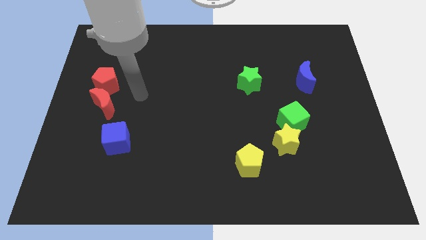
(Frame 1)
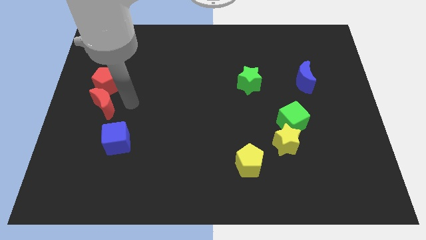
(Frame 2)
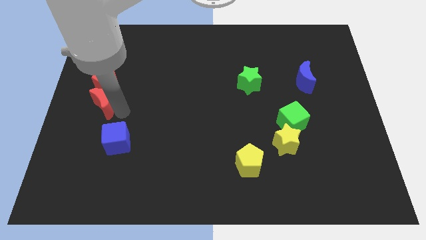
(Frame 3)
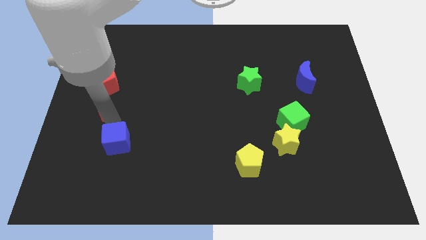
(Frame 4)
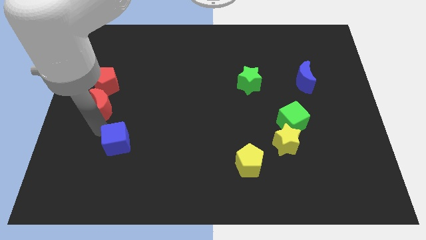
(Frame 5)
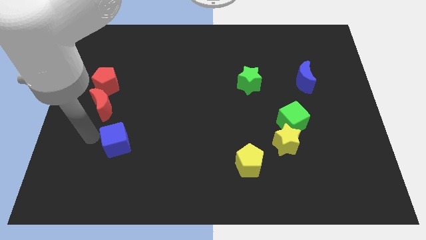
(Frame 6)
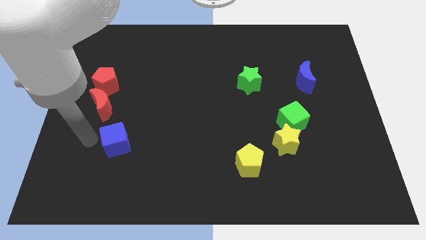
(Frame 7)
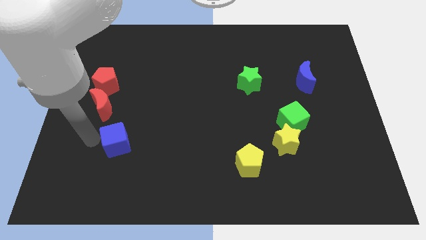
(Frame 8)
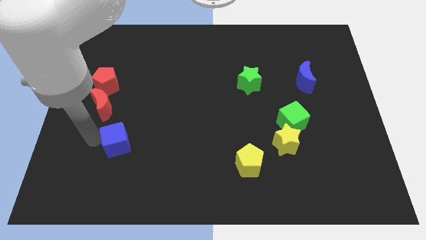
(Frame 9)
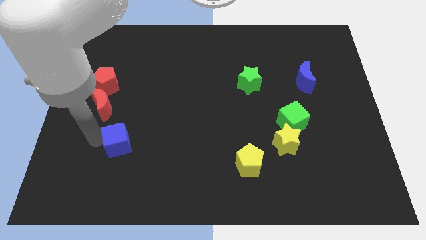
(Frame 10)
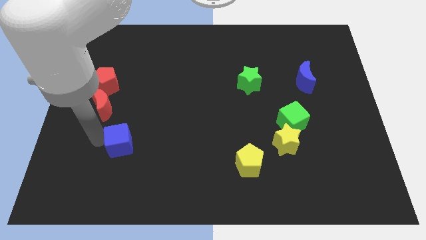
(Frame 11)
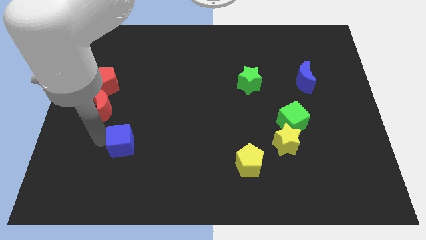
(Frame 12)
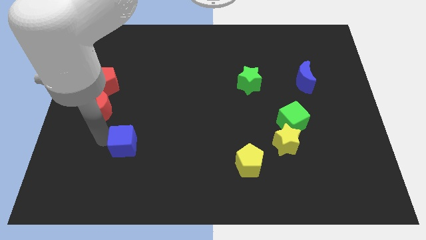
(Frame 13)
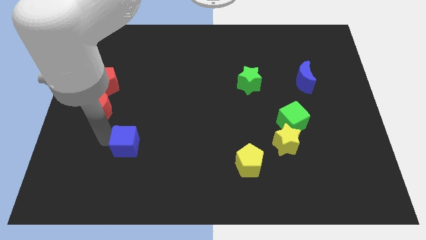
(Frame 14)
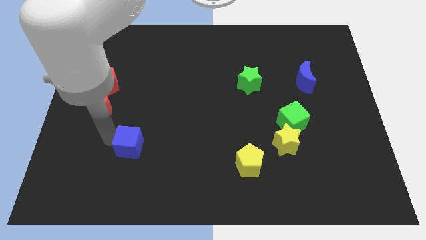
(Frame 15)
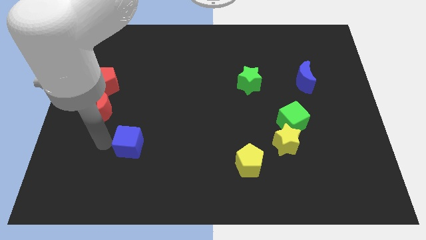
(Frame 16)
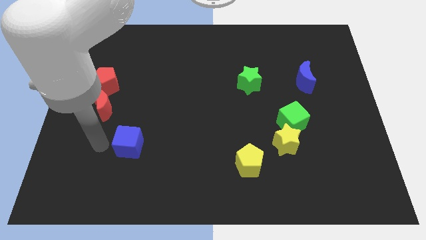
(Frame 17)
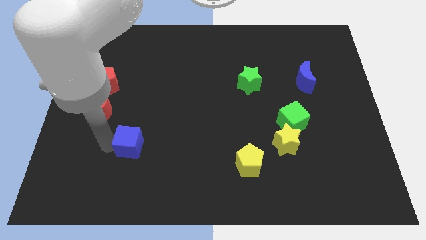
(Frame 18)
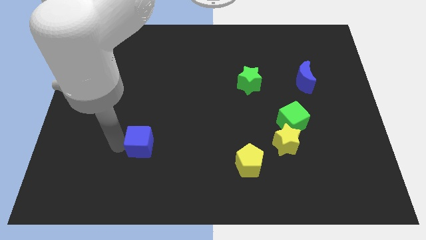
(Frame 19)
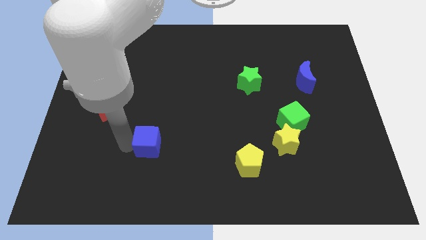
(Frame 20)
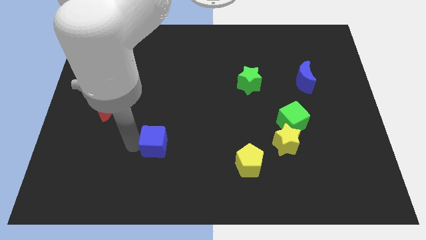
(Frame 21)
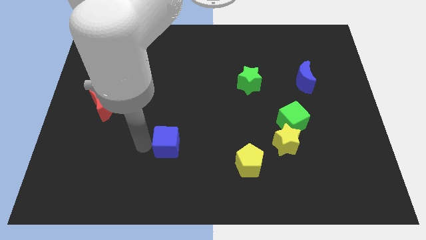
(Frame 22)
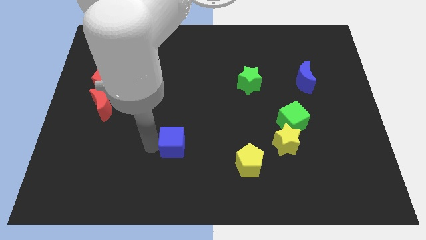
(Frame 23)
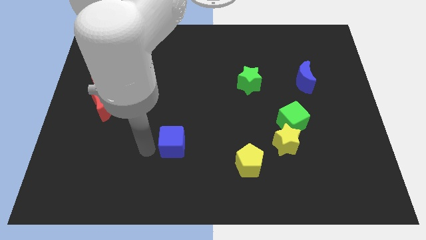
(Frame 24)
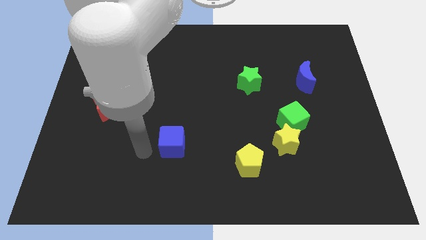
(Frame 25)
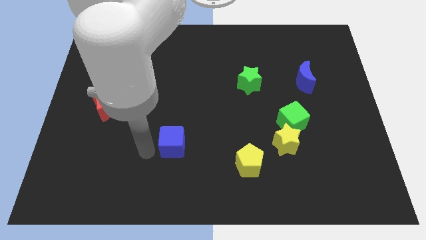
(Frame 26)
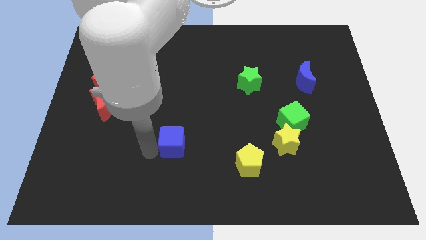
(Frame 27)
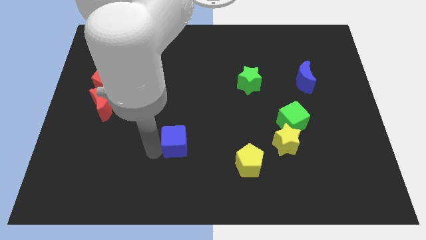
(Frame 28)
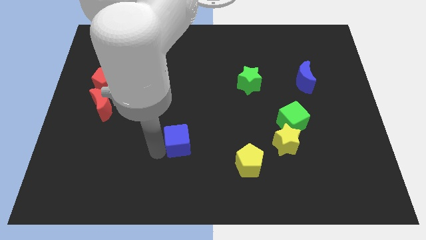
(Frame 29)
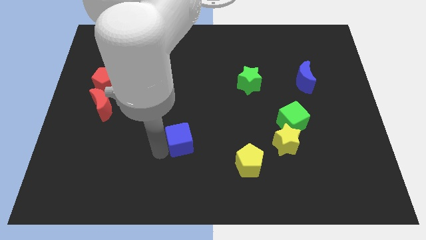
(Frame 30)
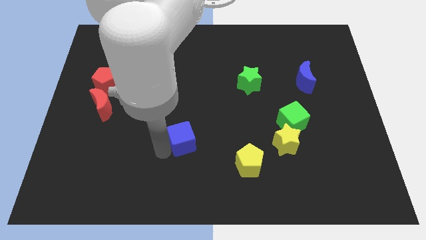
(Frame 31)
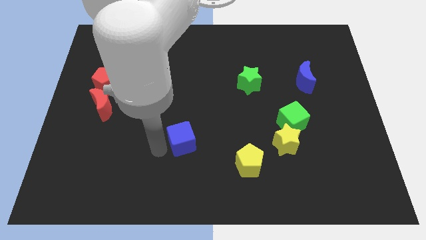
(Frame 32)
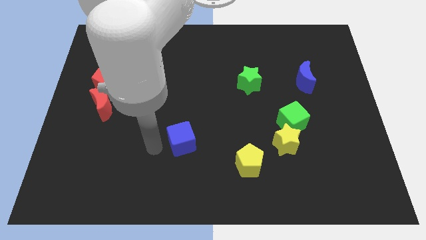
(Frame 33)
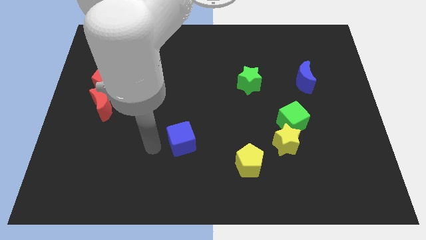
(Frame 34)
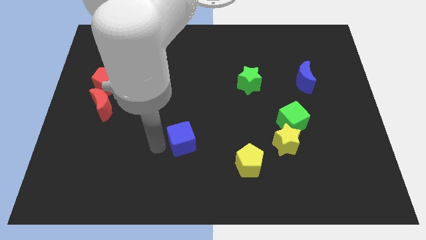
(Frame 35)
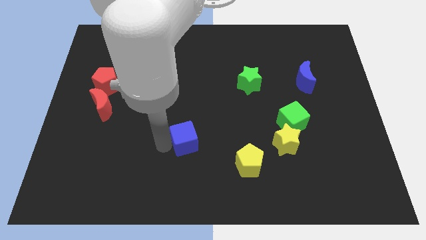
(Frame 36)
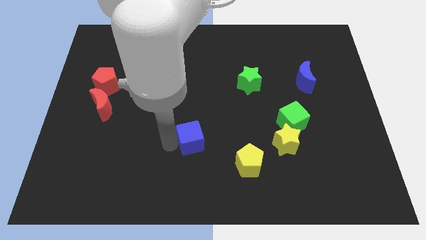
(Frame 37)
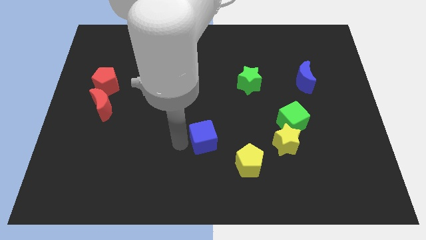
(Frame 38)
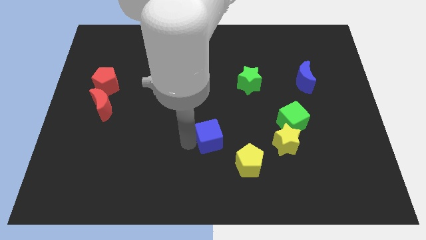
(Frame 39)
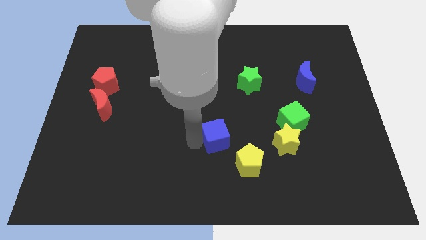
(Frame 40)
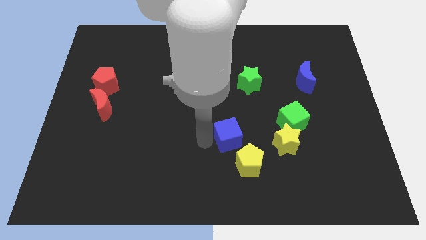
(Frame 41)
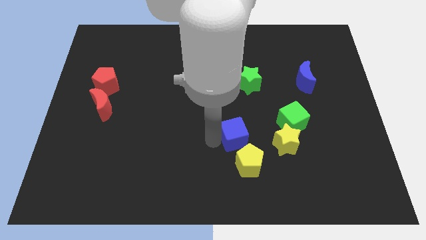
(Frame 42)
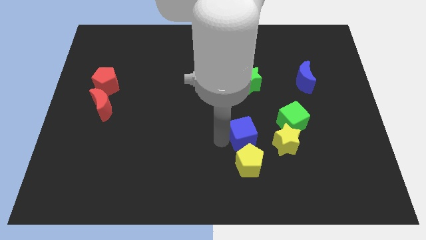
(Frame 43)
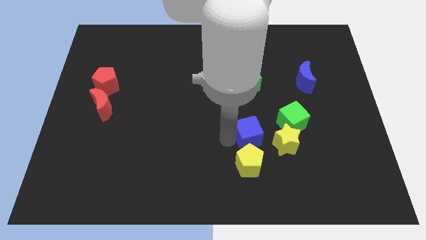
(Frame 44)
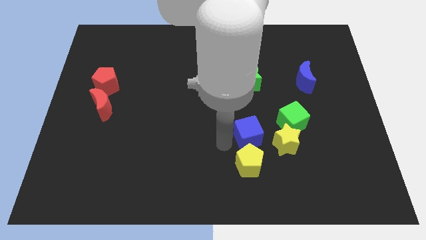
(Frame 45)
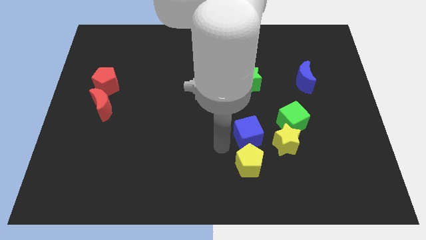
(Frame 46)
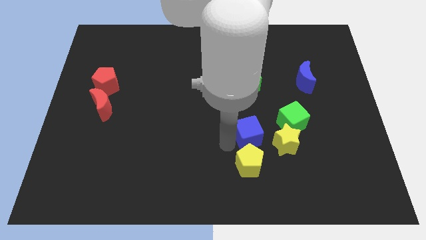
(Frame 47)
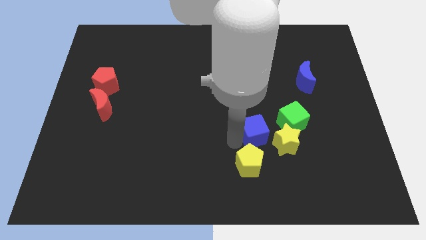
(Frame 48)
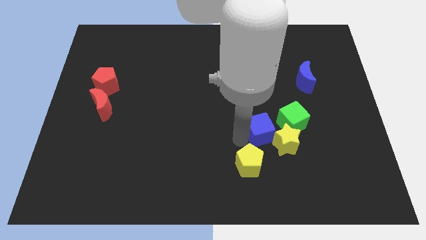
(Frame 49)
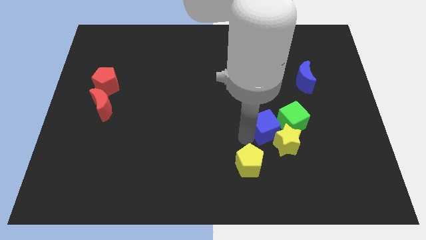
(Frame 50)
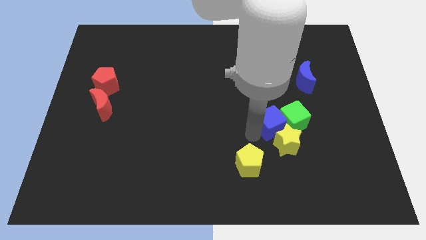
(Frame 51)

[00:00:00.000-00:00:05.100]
move the blue cube to the green cube

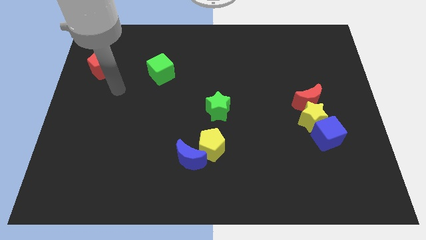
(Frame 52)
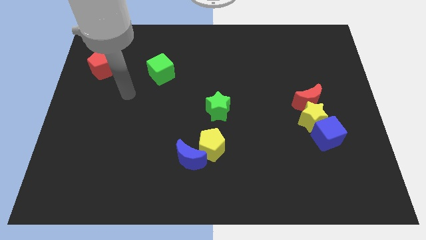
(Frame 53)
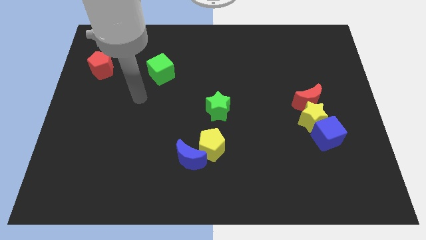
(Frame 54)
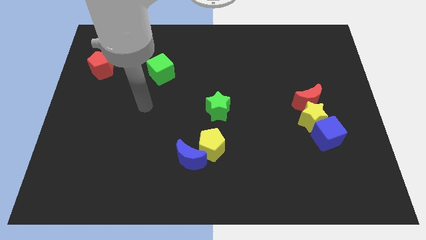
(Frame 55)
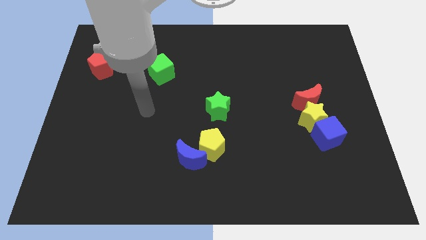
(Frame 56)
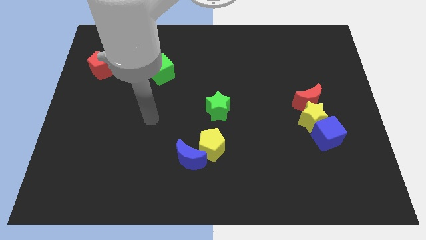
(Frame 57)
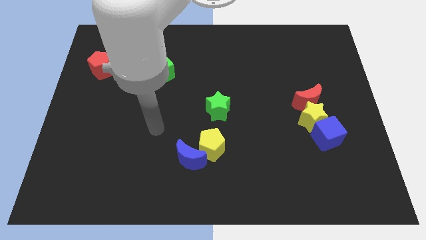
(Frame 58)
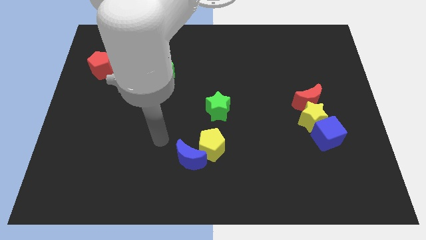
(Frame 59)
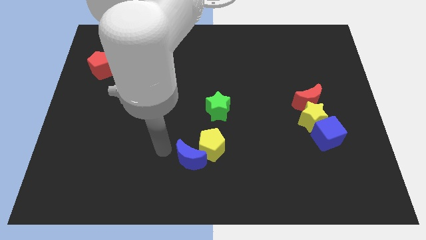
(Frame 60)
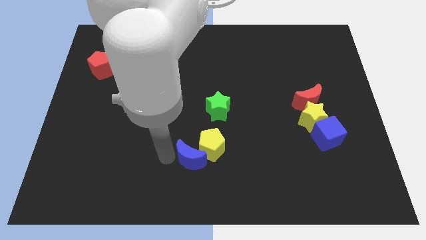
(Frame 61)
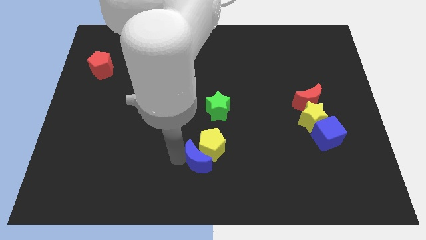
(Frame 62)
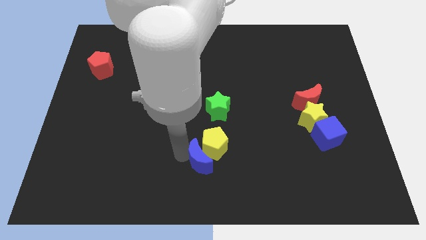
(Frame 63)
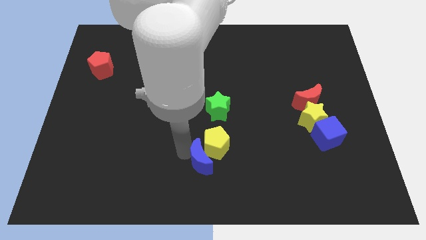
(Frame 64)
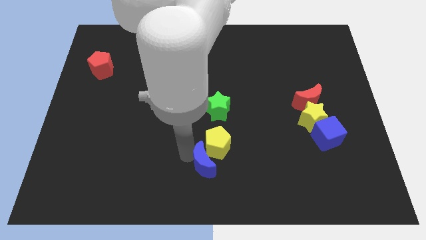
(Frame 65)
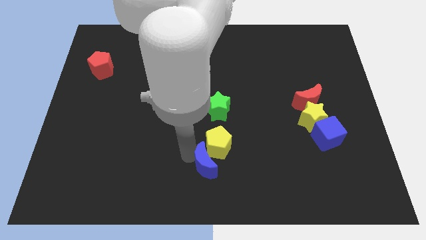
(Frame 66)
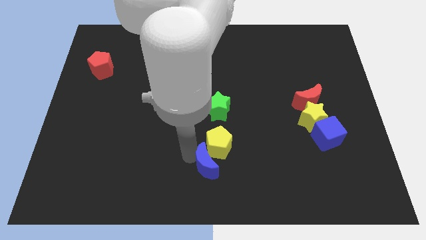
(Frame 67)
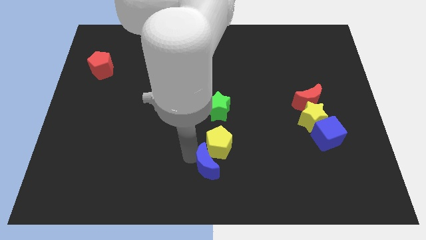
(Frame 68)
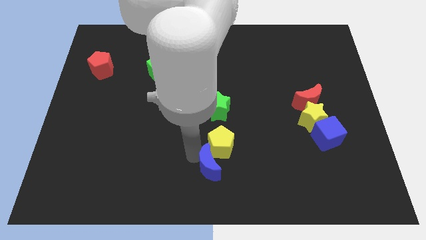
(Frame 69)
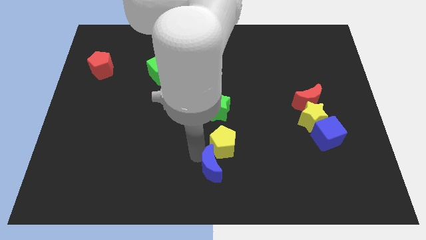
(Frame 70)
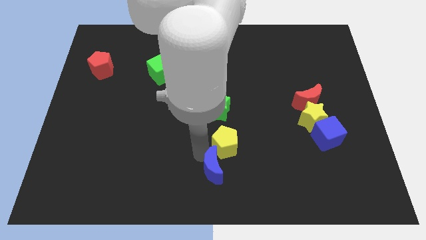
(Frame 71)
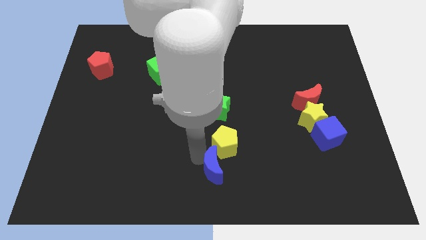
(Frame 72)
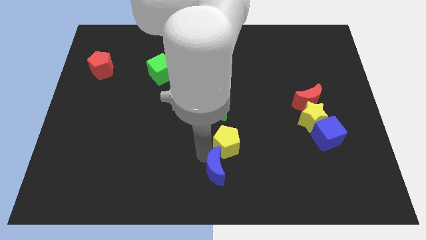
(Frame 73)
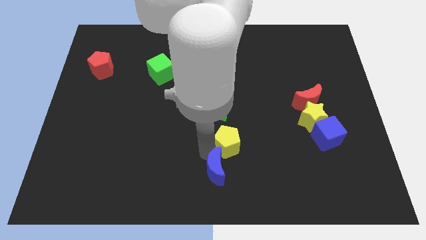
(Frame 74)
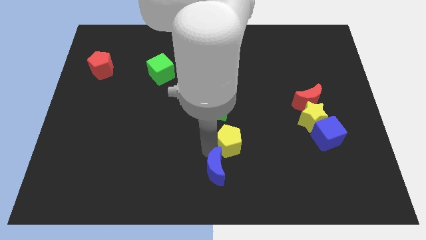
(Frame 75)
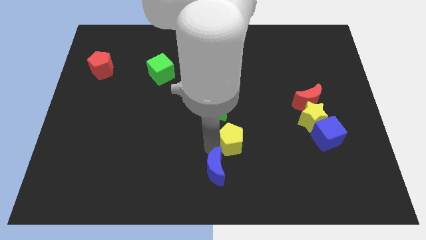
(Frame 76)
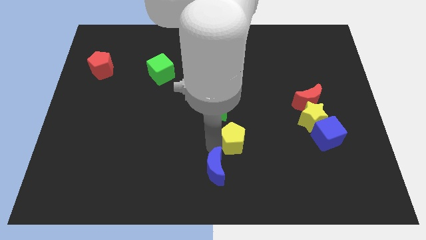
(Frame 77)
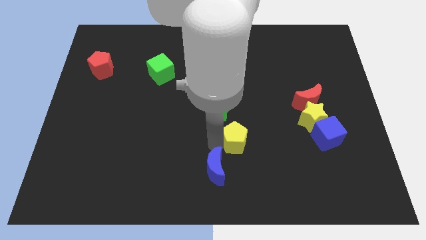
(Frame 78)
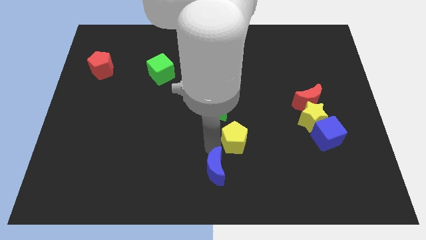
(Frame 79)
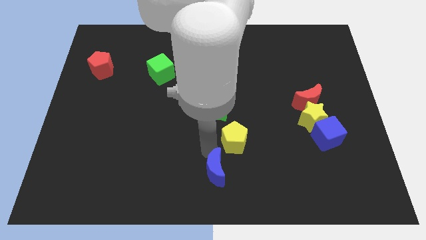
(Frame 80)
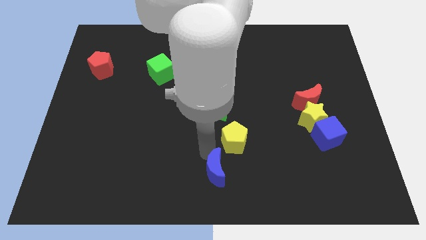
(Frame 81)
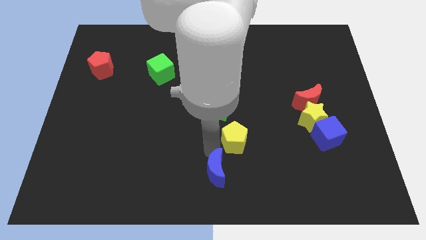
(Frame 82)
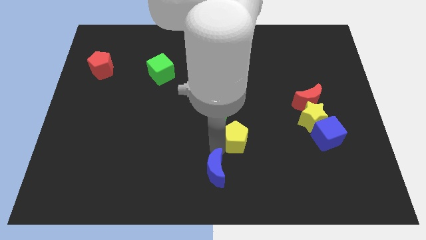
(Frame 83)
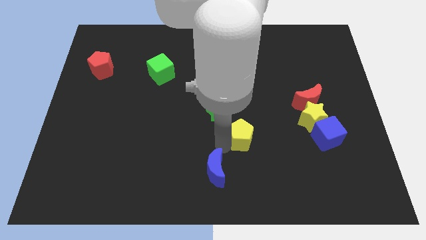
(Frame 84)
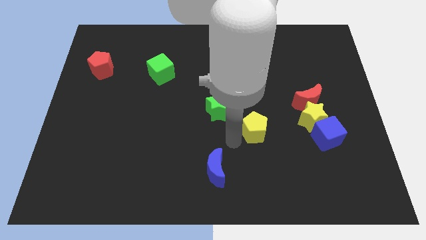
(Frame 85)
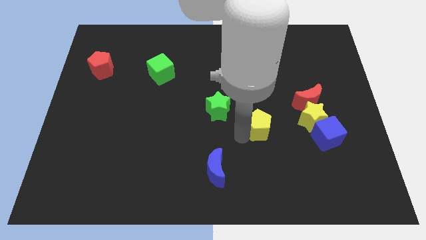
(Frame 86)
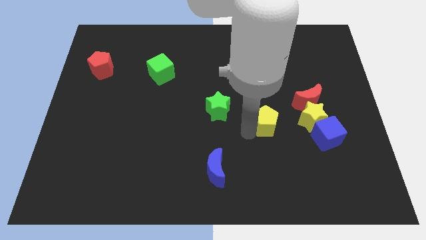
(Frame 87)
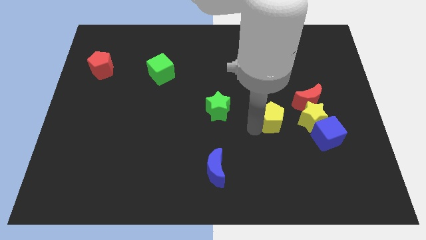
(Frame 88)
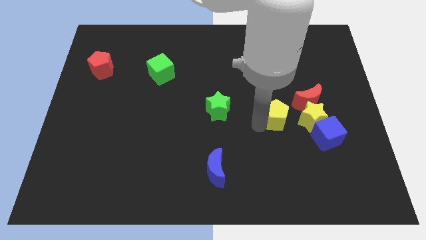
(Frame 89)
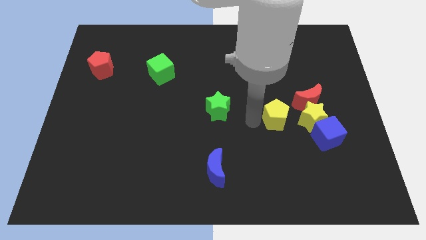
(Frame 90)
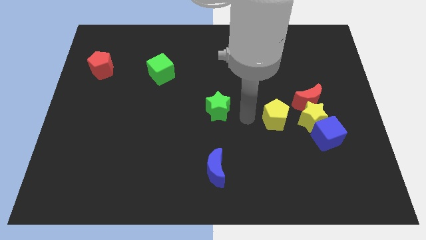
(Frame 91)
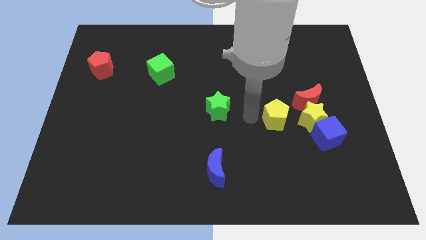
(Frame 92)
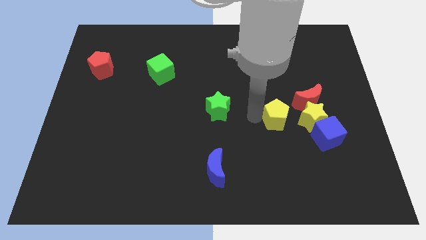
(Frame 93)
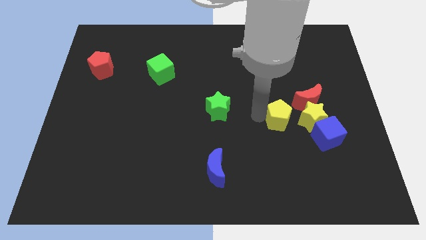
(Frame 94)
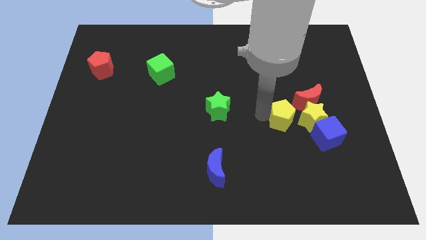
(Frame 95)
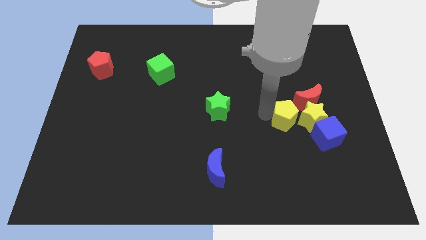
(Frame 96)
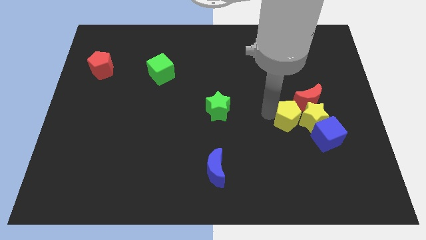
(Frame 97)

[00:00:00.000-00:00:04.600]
slide the yellow pentagon next to the yellow star
